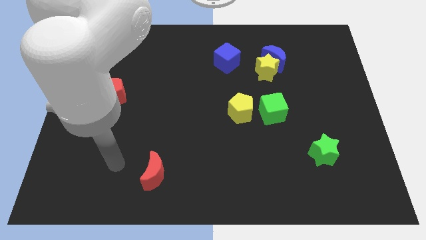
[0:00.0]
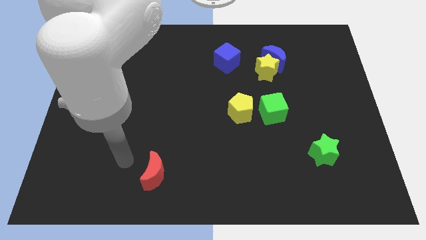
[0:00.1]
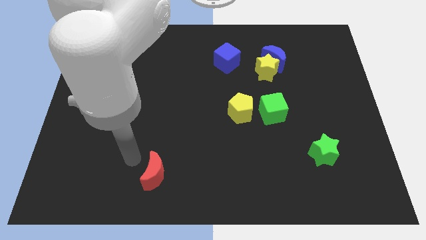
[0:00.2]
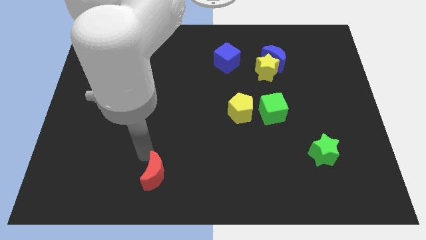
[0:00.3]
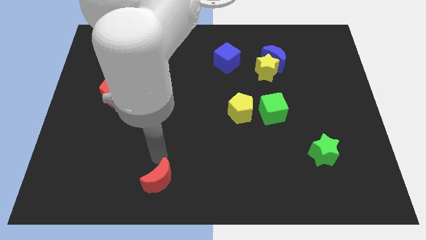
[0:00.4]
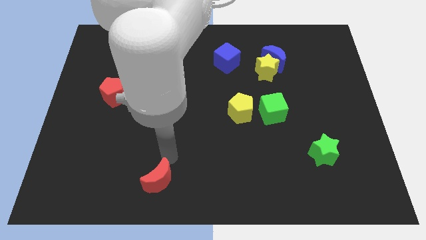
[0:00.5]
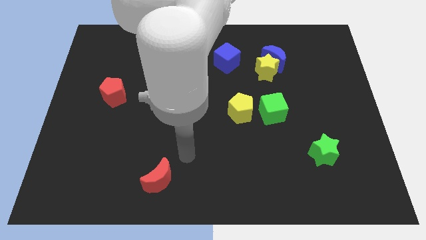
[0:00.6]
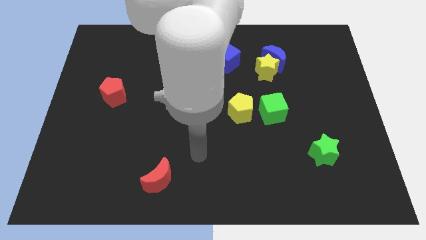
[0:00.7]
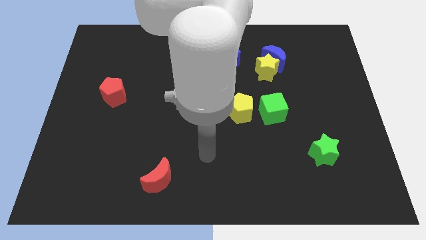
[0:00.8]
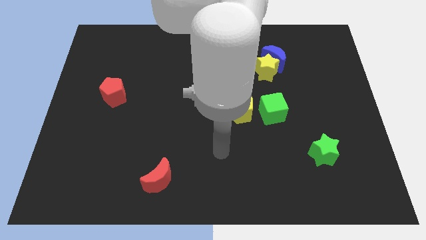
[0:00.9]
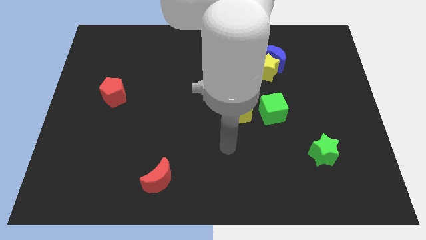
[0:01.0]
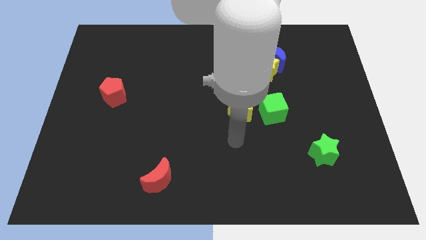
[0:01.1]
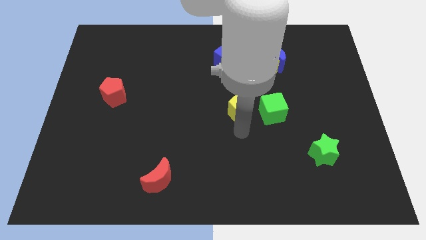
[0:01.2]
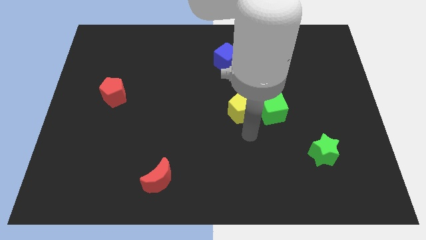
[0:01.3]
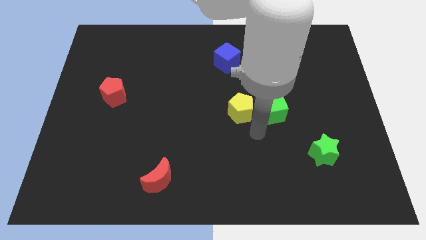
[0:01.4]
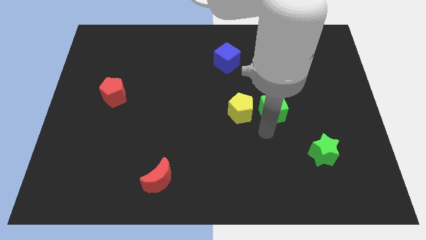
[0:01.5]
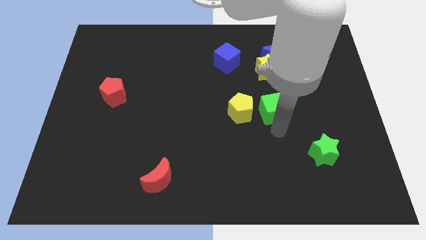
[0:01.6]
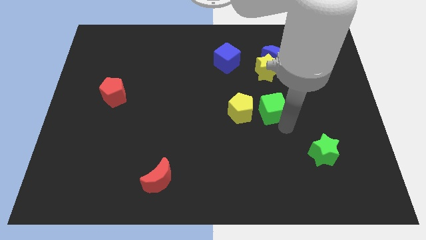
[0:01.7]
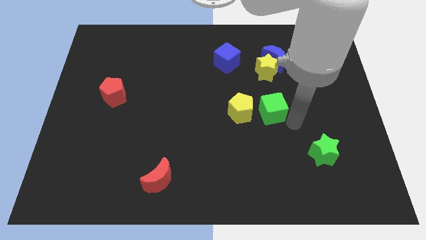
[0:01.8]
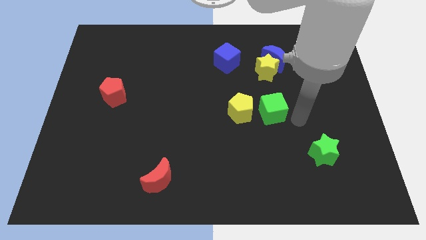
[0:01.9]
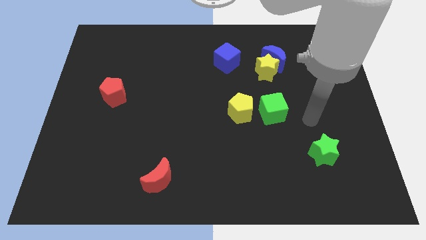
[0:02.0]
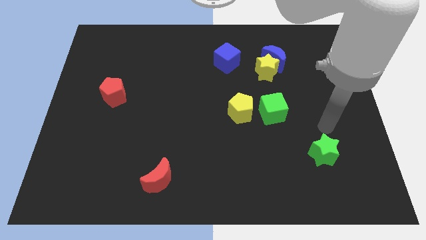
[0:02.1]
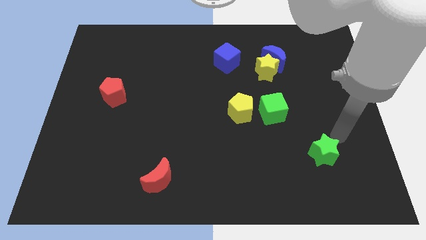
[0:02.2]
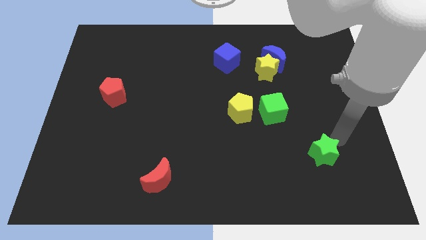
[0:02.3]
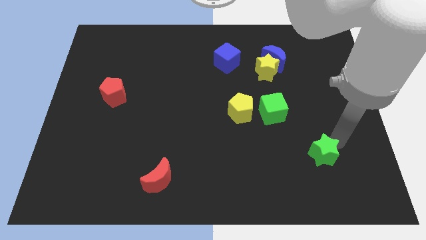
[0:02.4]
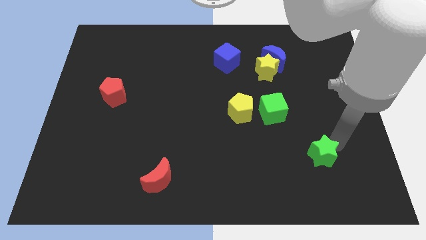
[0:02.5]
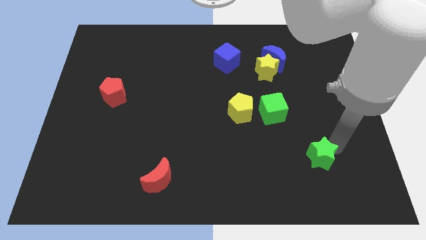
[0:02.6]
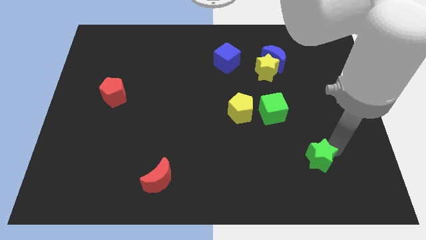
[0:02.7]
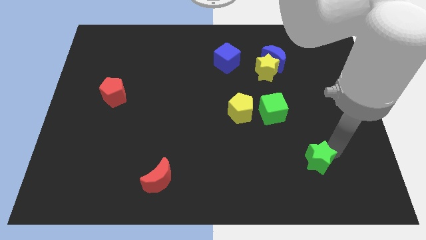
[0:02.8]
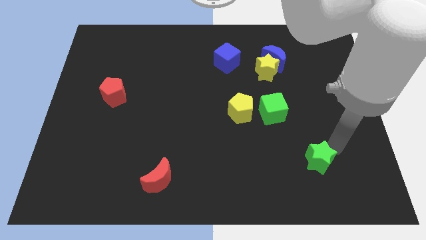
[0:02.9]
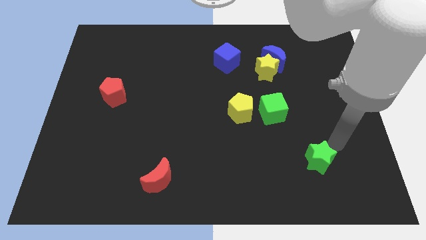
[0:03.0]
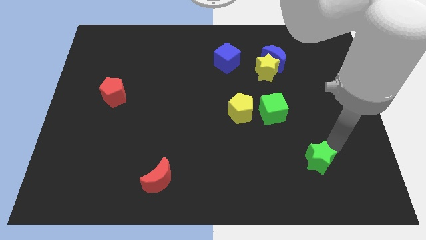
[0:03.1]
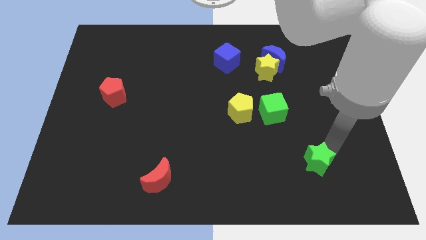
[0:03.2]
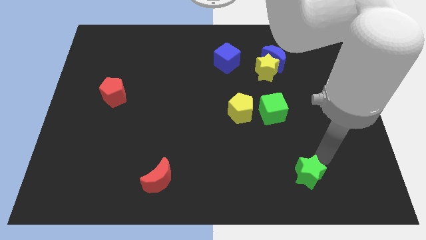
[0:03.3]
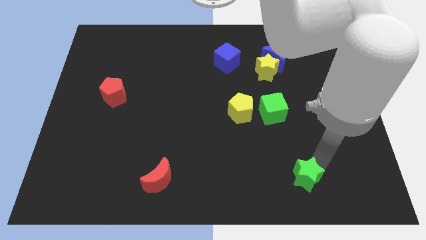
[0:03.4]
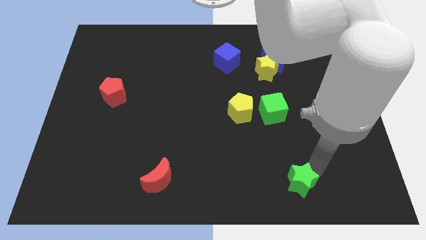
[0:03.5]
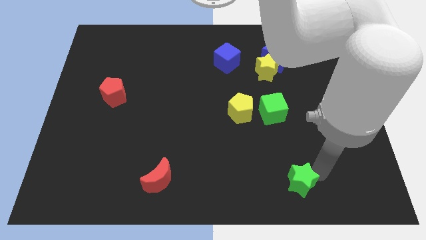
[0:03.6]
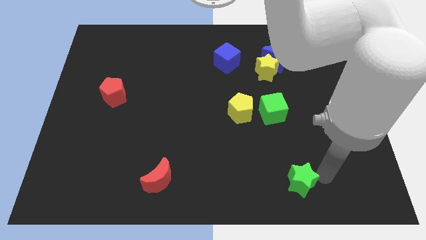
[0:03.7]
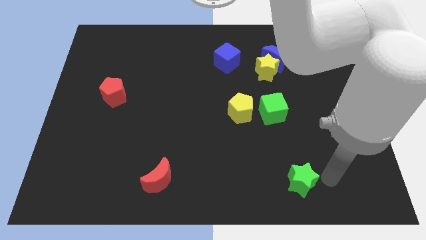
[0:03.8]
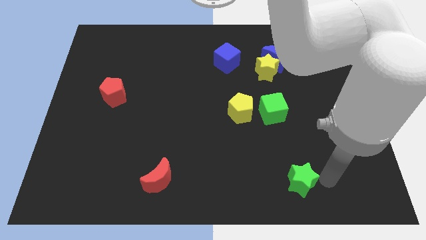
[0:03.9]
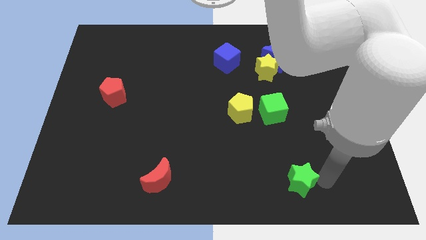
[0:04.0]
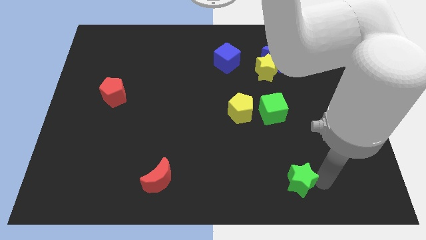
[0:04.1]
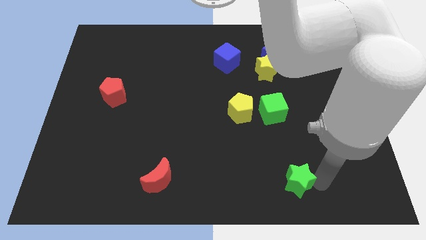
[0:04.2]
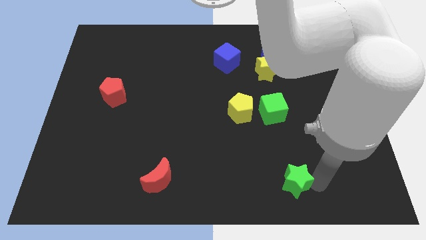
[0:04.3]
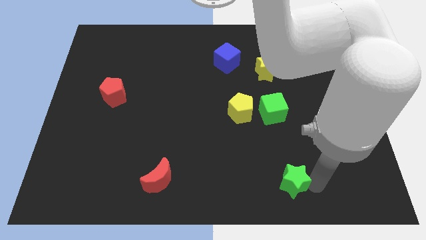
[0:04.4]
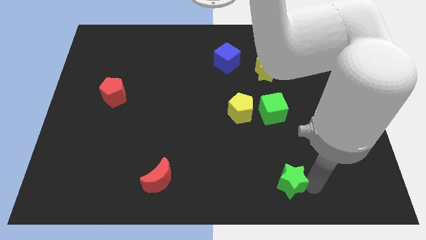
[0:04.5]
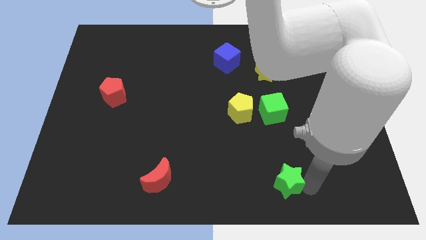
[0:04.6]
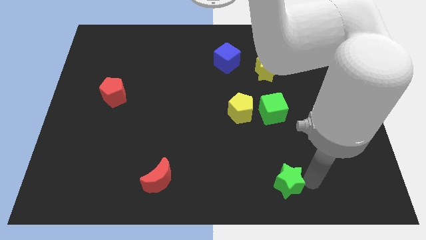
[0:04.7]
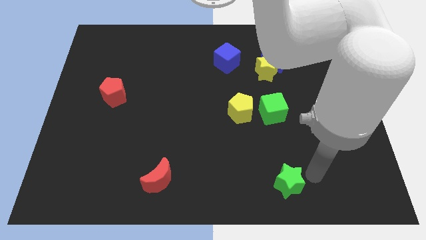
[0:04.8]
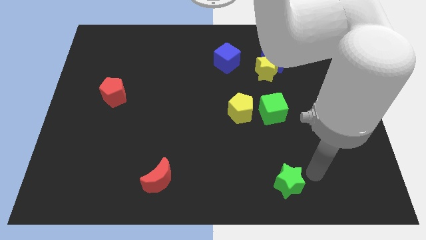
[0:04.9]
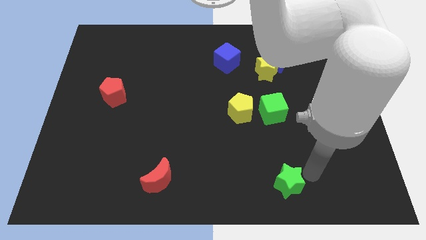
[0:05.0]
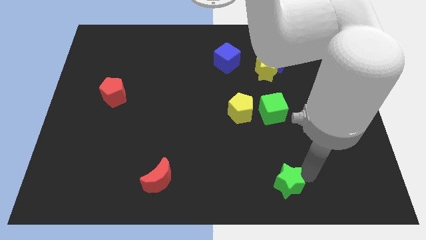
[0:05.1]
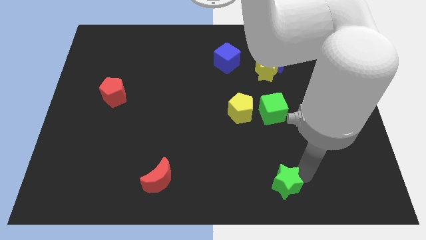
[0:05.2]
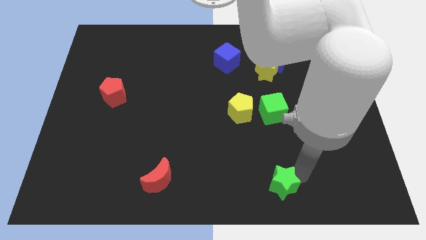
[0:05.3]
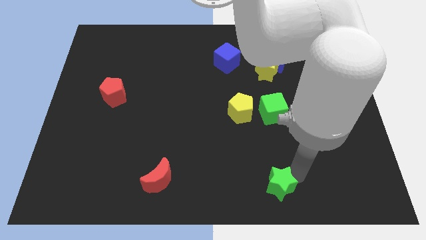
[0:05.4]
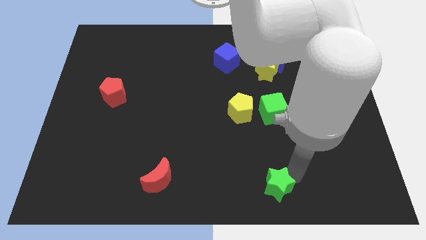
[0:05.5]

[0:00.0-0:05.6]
move the green star to the bottom side
